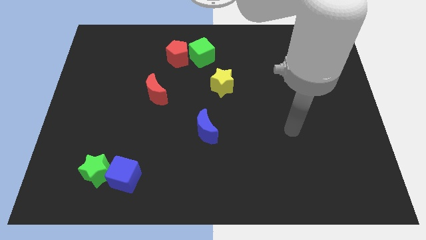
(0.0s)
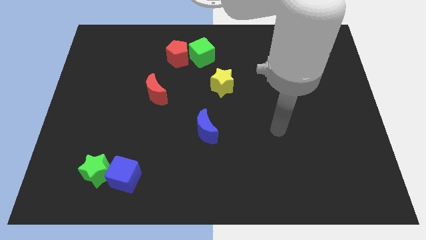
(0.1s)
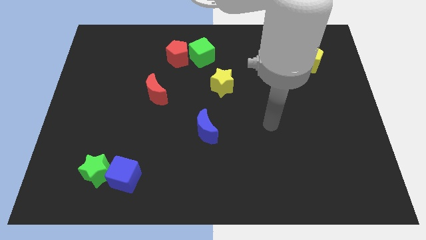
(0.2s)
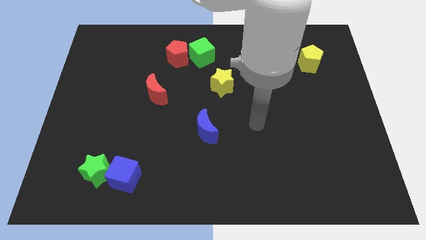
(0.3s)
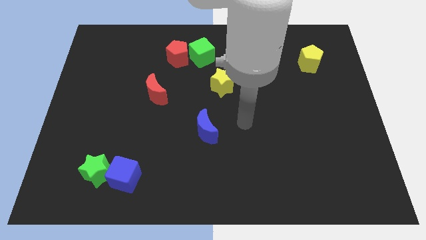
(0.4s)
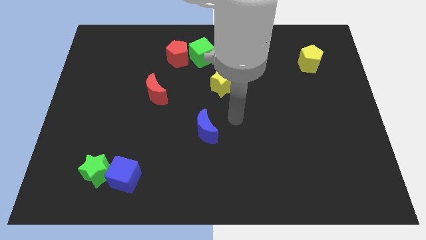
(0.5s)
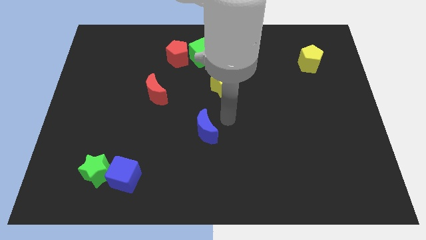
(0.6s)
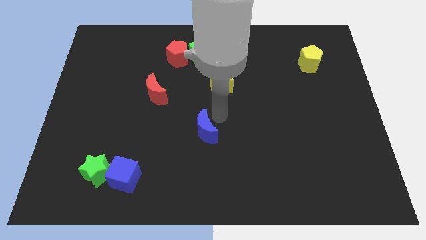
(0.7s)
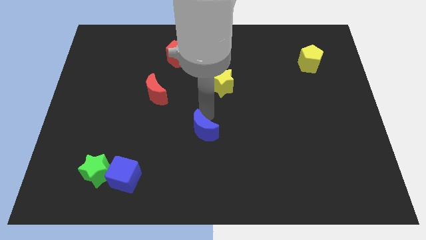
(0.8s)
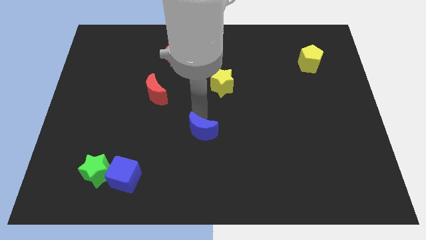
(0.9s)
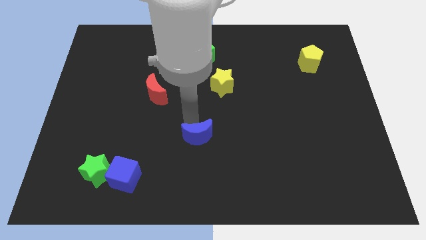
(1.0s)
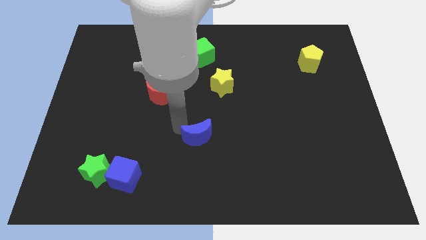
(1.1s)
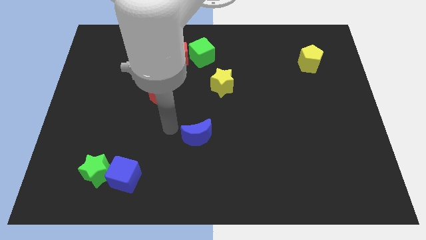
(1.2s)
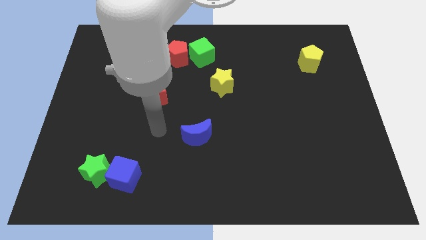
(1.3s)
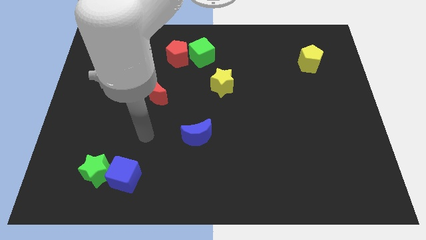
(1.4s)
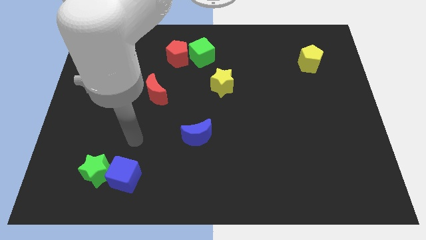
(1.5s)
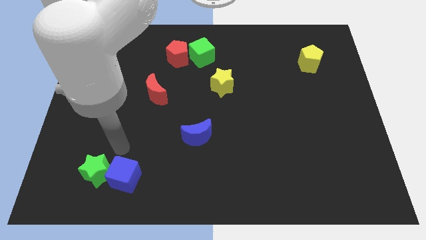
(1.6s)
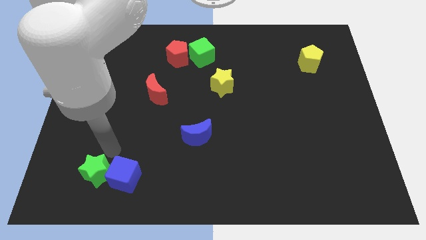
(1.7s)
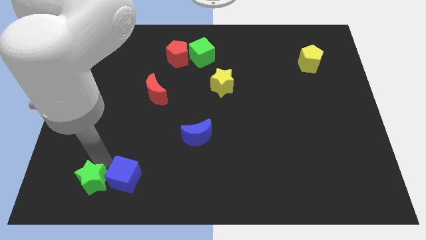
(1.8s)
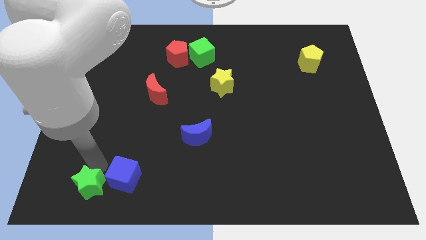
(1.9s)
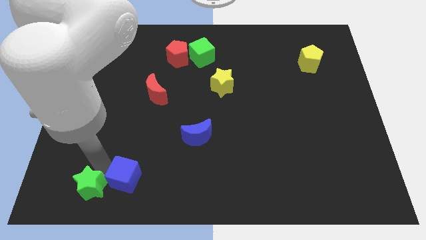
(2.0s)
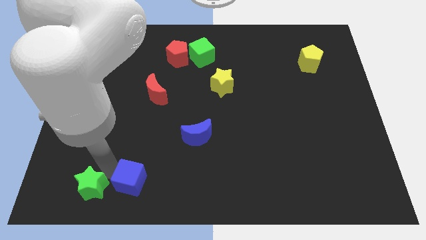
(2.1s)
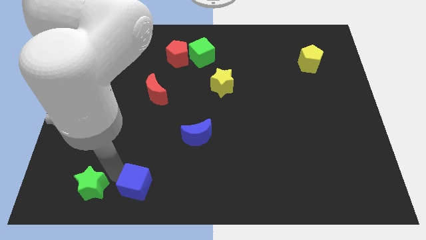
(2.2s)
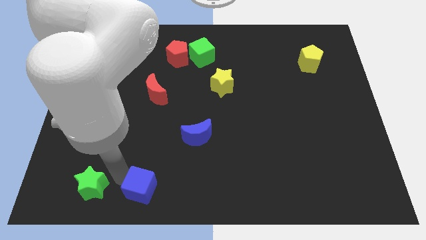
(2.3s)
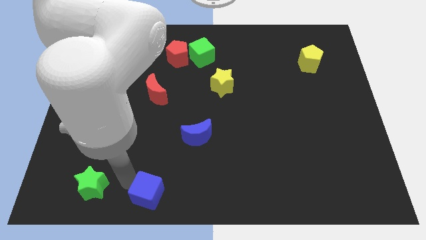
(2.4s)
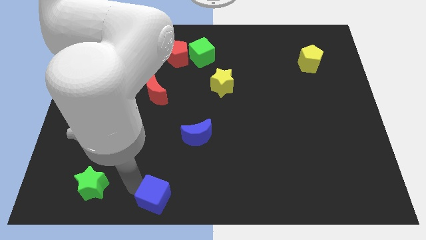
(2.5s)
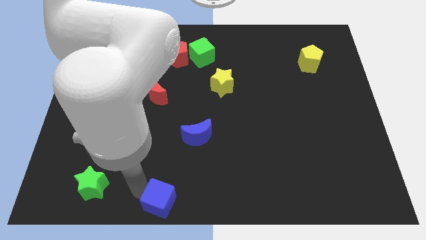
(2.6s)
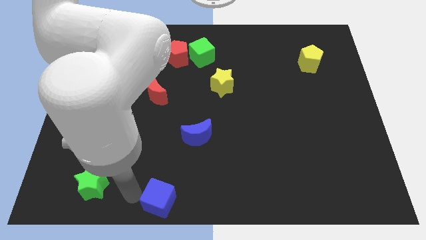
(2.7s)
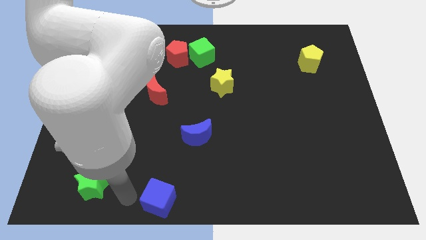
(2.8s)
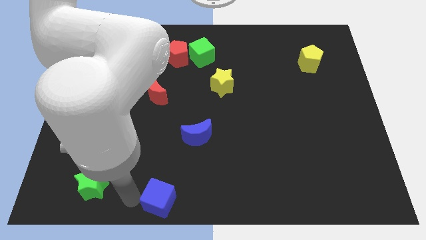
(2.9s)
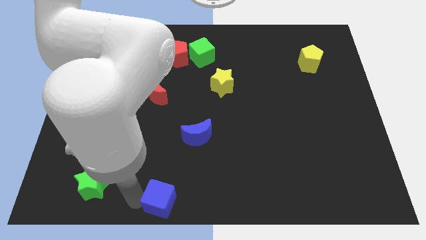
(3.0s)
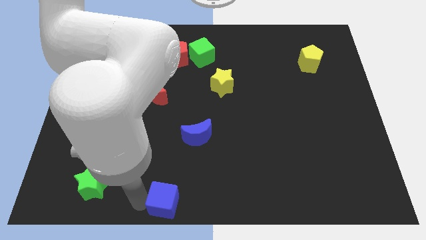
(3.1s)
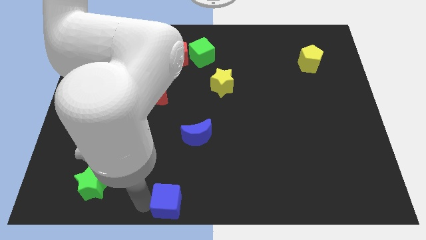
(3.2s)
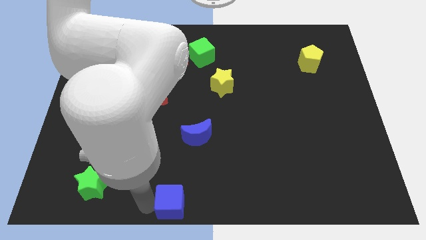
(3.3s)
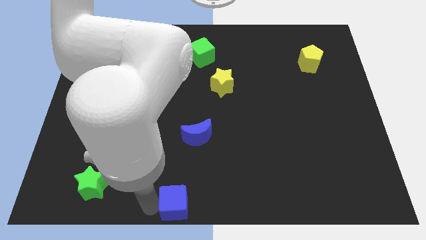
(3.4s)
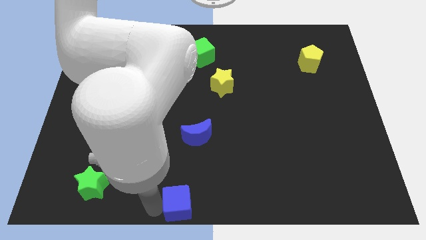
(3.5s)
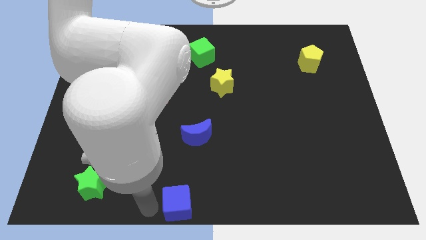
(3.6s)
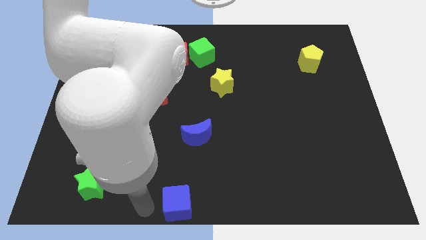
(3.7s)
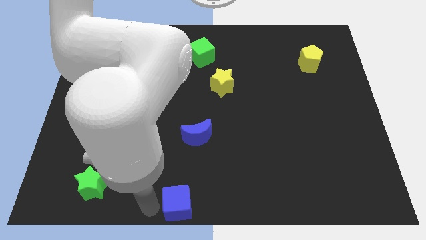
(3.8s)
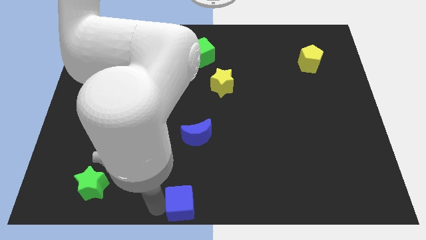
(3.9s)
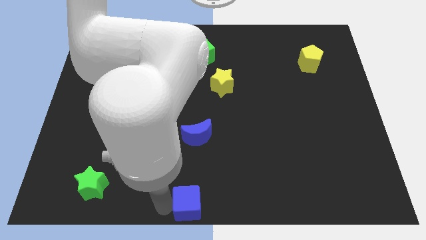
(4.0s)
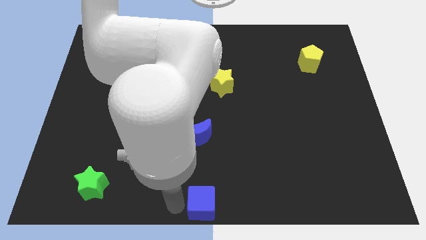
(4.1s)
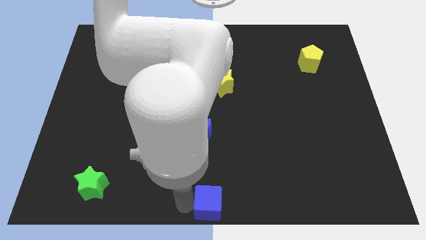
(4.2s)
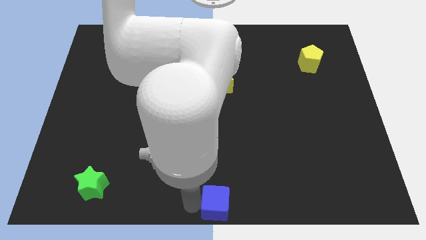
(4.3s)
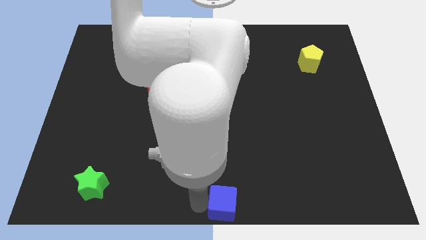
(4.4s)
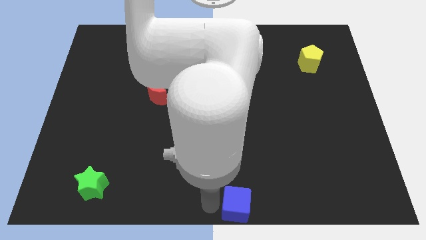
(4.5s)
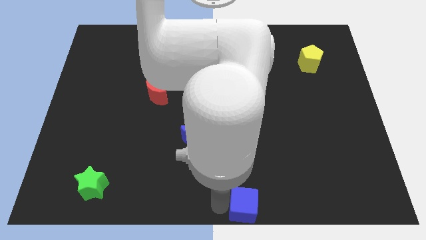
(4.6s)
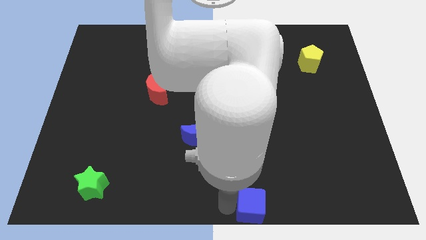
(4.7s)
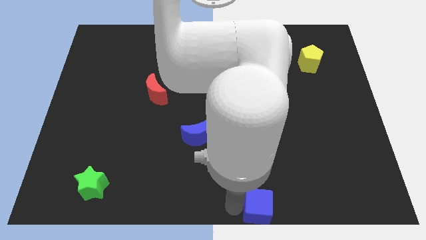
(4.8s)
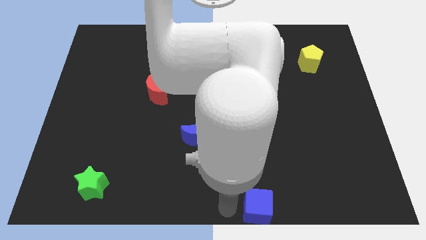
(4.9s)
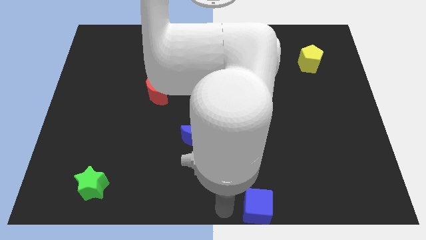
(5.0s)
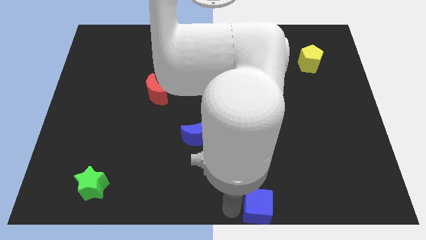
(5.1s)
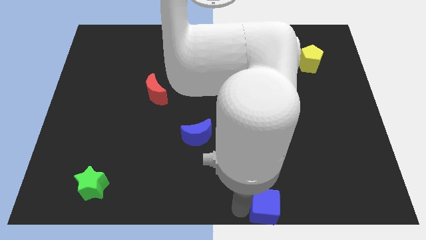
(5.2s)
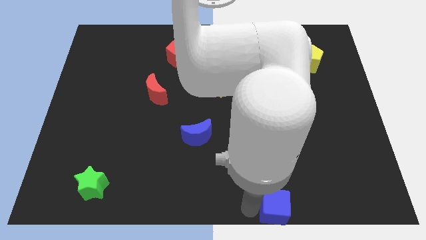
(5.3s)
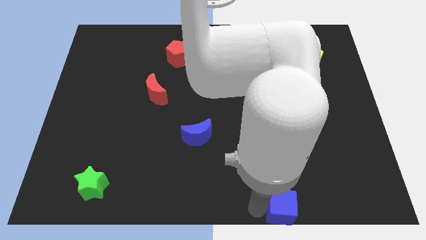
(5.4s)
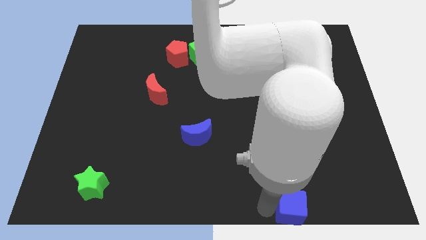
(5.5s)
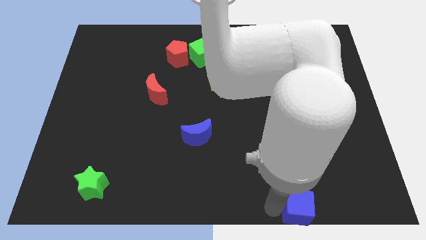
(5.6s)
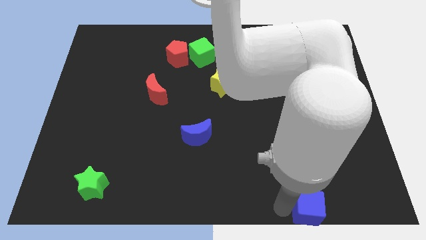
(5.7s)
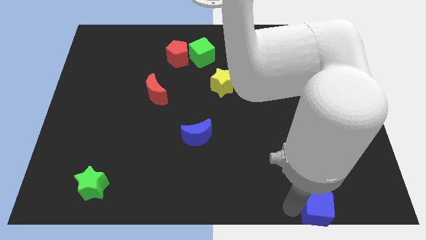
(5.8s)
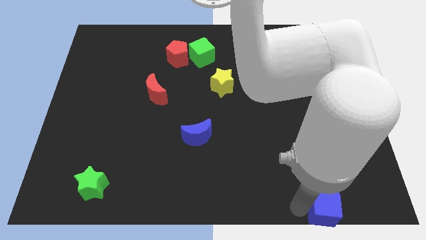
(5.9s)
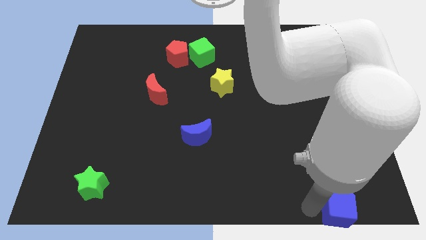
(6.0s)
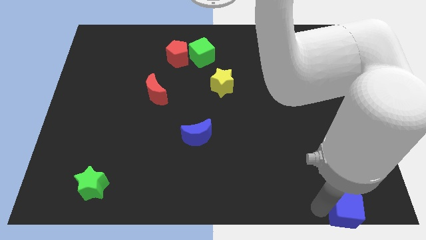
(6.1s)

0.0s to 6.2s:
slide the blue cube to the bottom right corner
